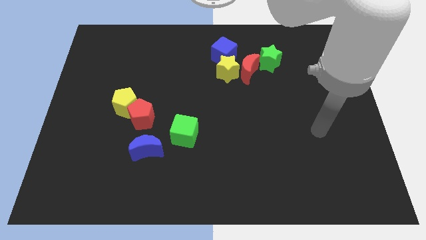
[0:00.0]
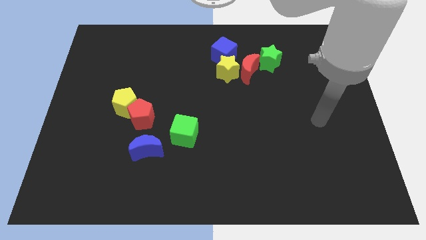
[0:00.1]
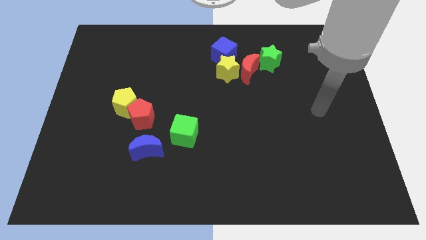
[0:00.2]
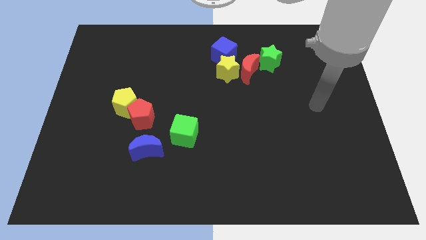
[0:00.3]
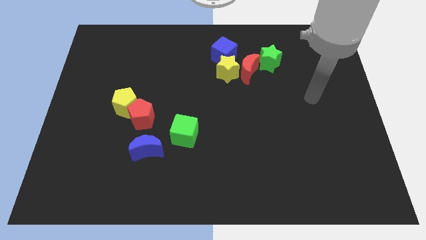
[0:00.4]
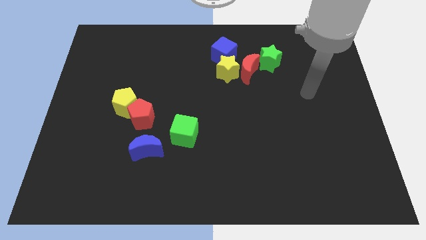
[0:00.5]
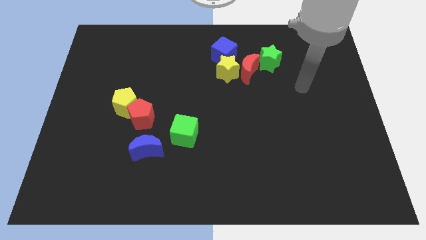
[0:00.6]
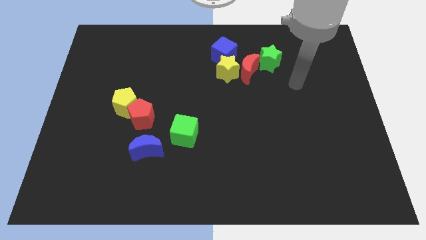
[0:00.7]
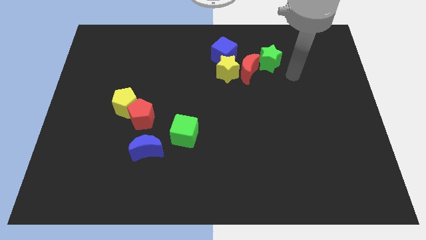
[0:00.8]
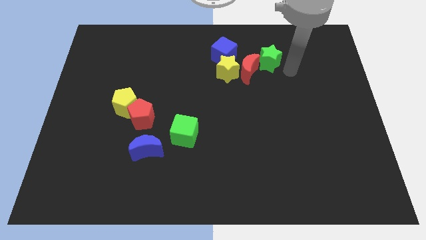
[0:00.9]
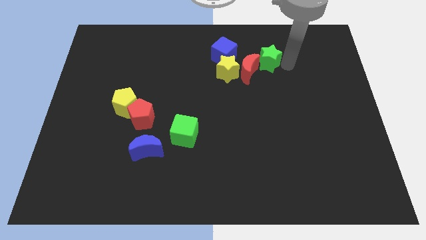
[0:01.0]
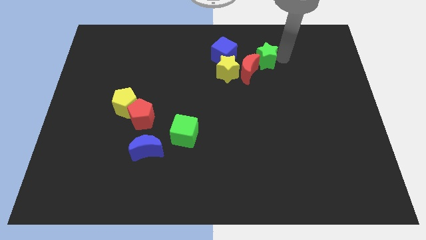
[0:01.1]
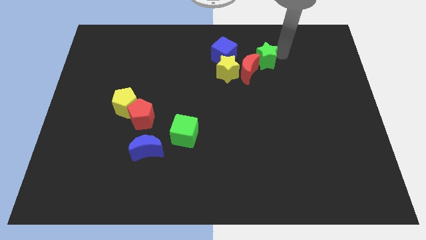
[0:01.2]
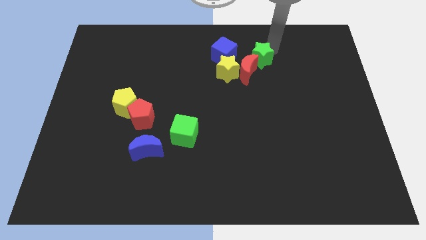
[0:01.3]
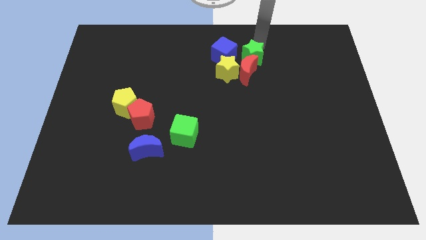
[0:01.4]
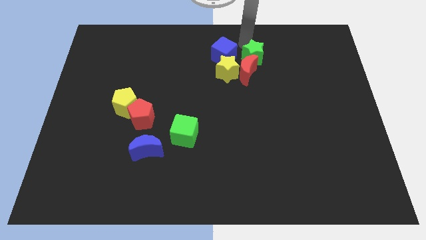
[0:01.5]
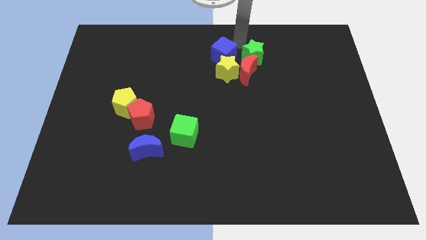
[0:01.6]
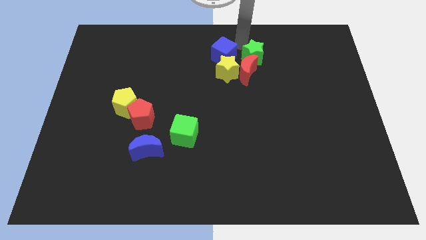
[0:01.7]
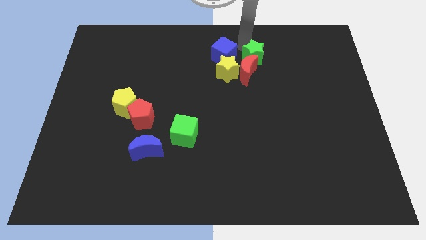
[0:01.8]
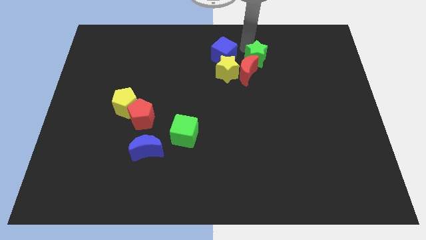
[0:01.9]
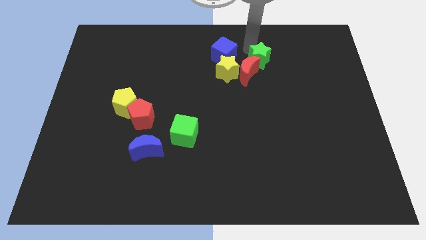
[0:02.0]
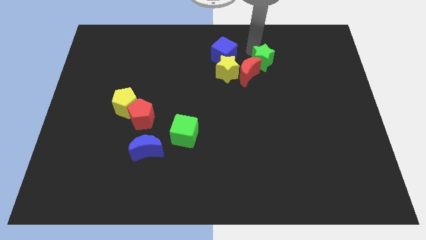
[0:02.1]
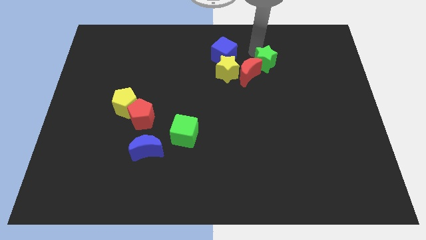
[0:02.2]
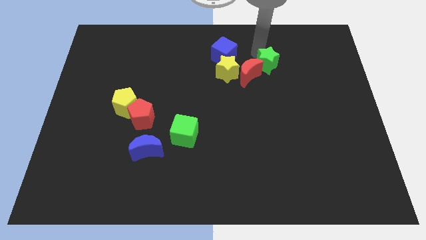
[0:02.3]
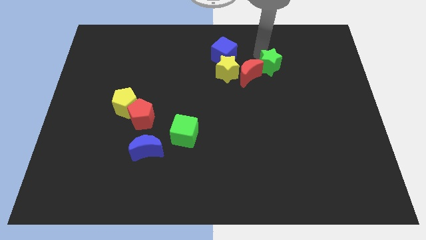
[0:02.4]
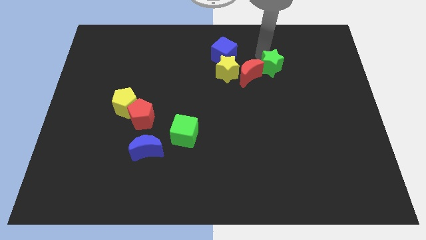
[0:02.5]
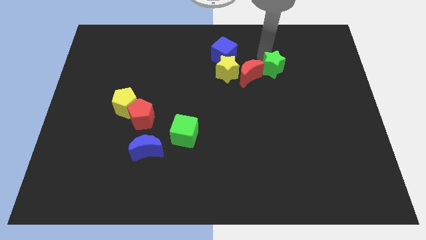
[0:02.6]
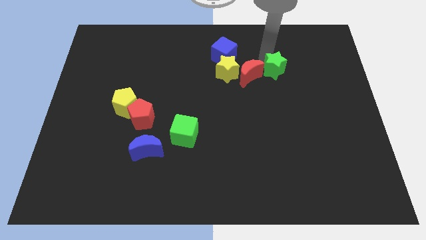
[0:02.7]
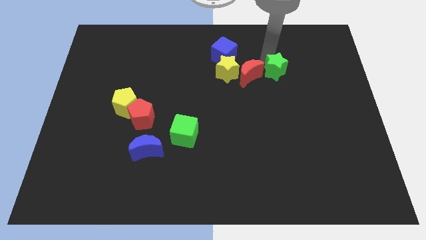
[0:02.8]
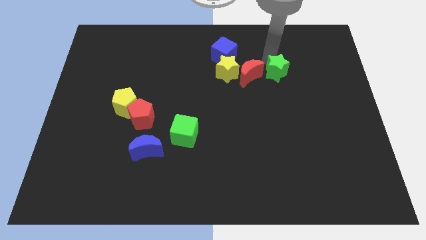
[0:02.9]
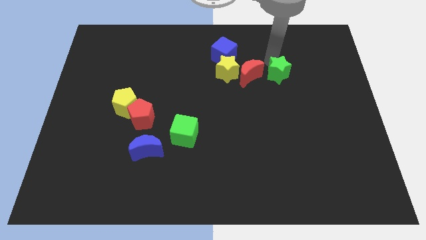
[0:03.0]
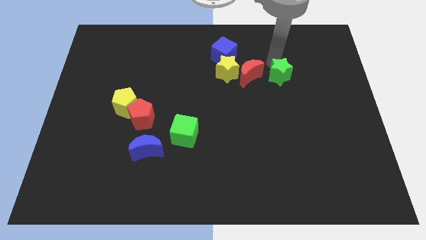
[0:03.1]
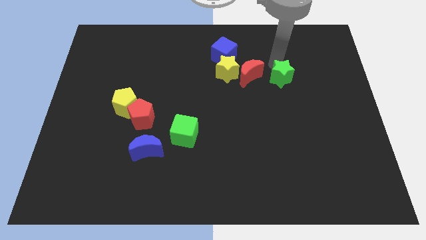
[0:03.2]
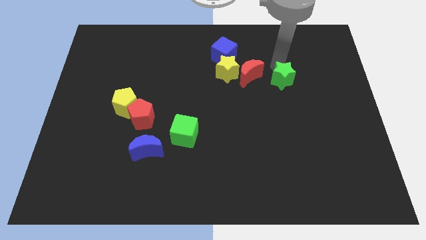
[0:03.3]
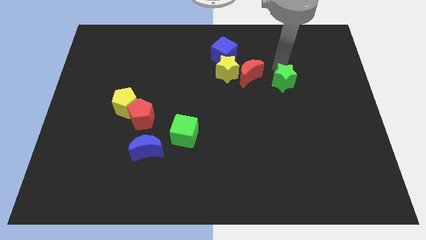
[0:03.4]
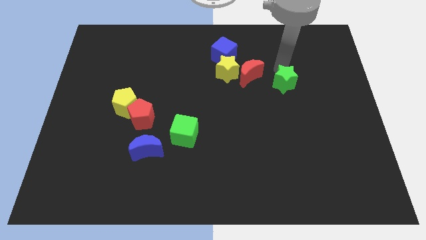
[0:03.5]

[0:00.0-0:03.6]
slightly push the green star down

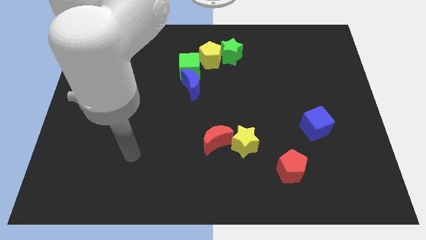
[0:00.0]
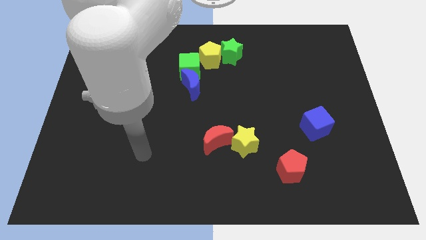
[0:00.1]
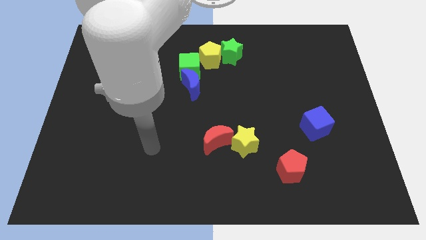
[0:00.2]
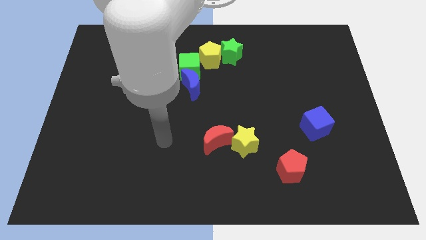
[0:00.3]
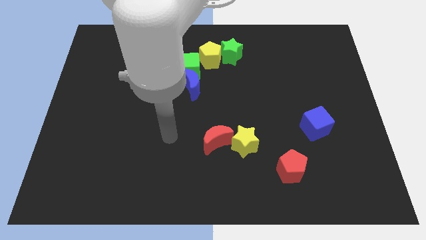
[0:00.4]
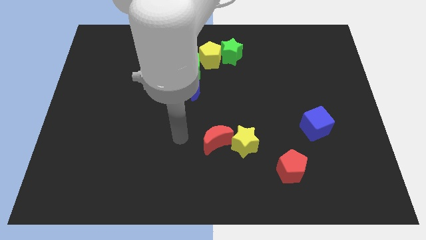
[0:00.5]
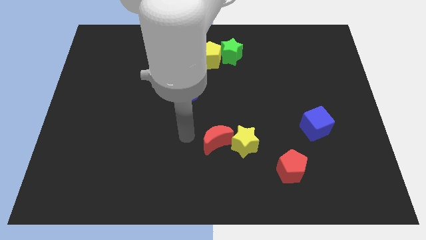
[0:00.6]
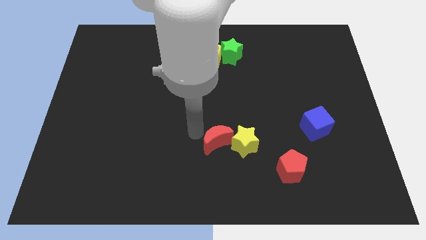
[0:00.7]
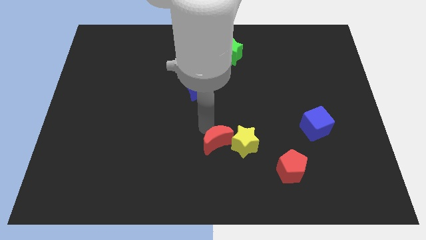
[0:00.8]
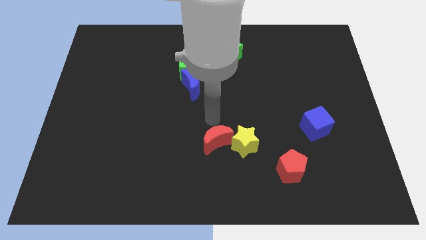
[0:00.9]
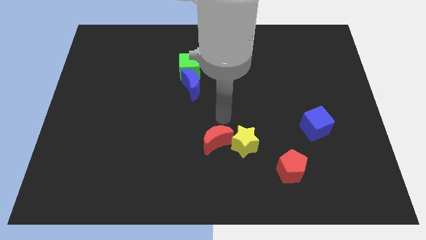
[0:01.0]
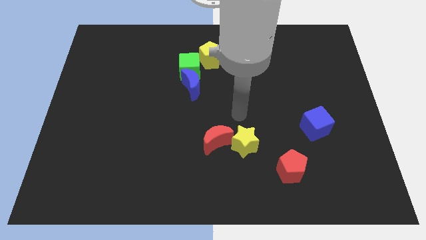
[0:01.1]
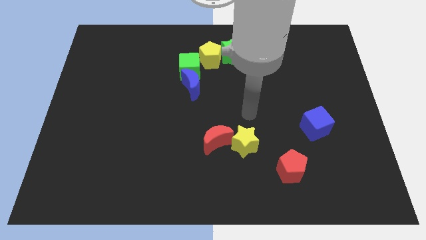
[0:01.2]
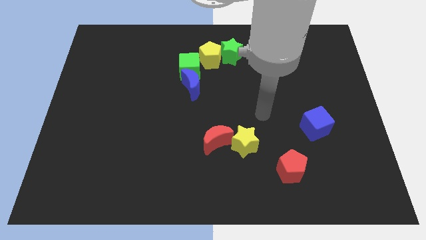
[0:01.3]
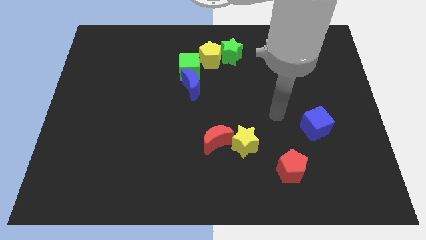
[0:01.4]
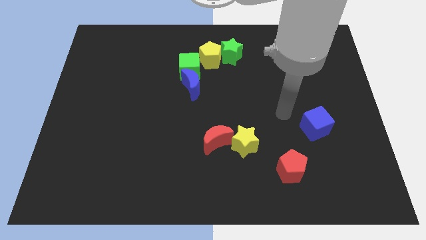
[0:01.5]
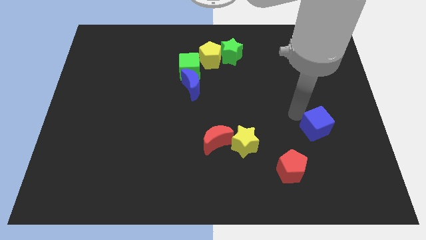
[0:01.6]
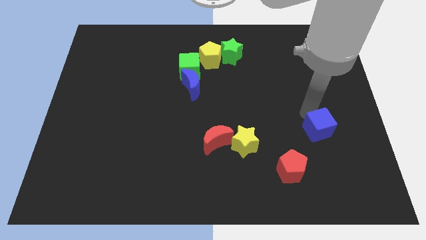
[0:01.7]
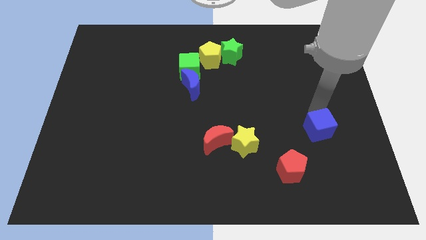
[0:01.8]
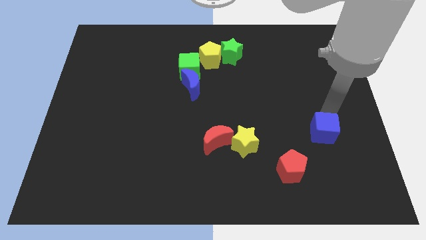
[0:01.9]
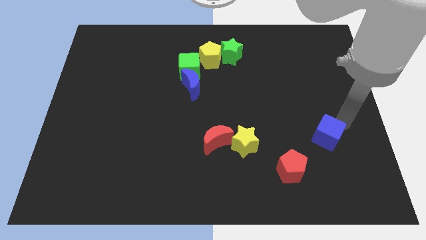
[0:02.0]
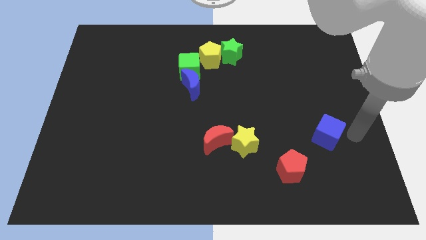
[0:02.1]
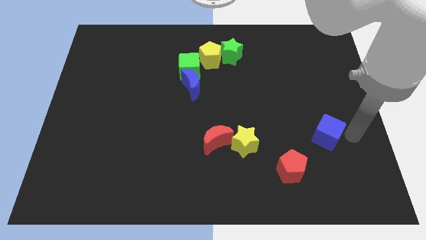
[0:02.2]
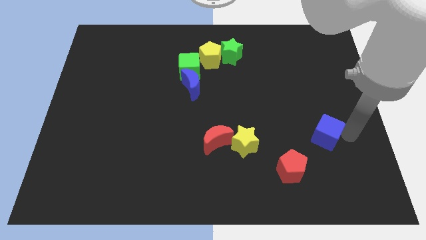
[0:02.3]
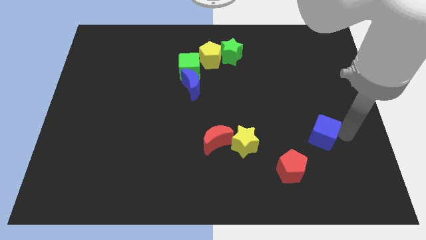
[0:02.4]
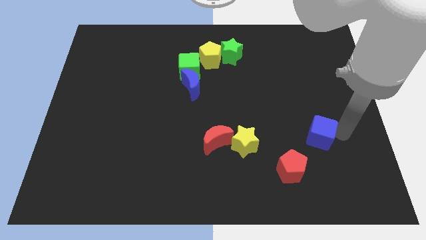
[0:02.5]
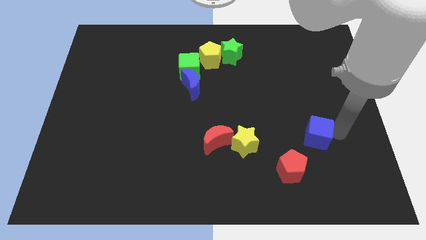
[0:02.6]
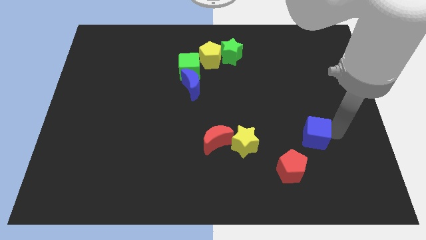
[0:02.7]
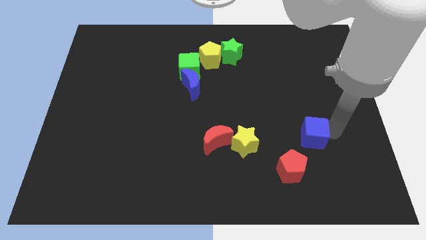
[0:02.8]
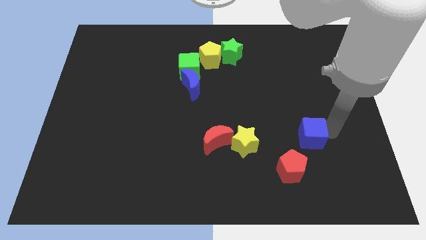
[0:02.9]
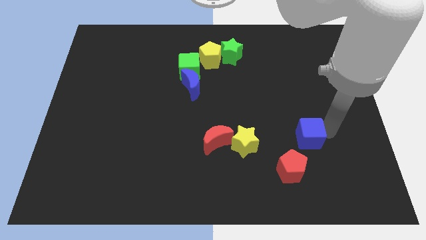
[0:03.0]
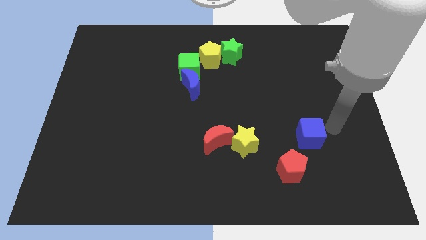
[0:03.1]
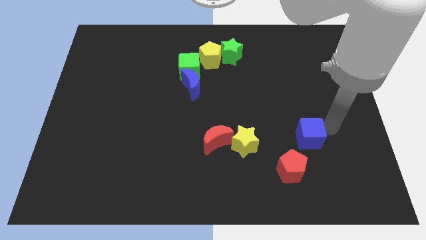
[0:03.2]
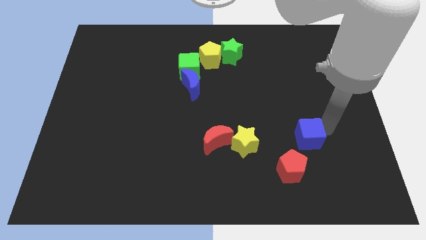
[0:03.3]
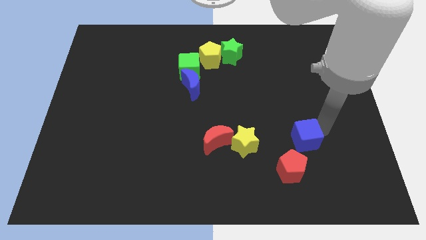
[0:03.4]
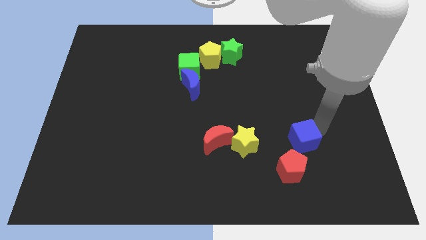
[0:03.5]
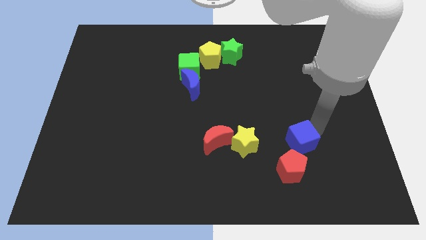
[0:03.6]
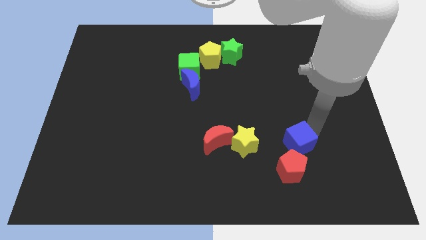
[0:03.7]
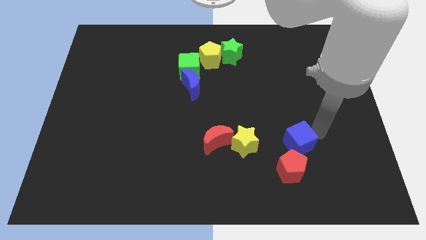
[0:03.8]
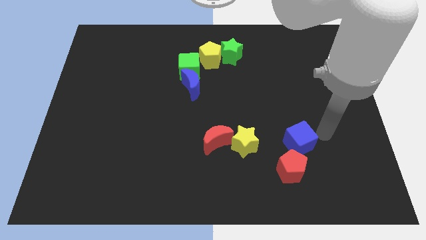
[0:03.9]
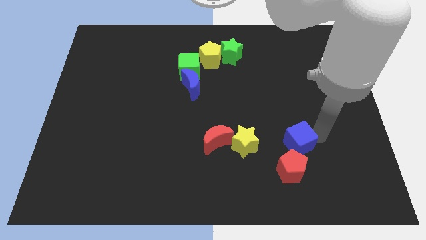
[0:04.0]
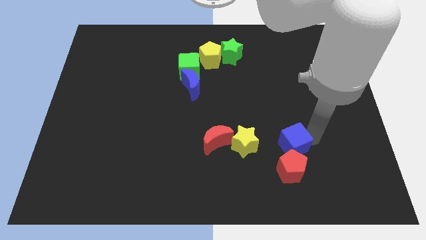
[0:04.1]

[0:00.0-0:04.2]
slide the blue cube down and left diagonally a bit
